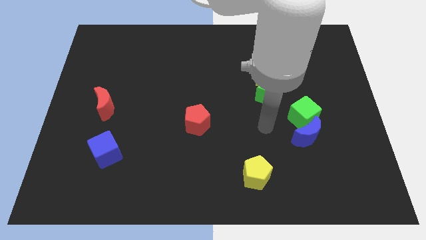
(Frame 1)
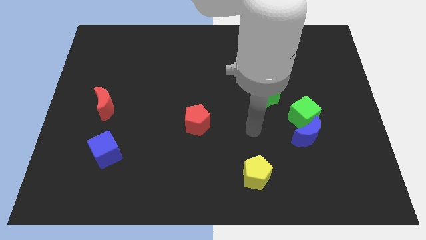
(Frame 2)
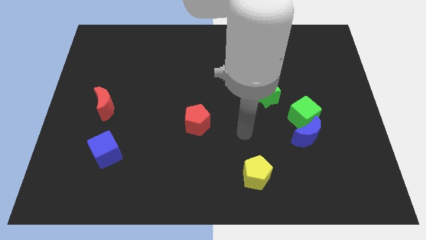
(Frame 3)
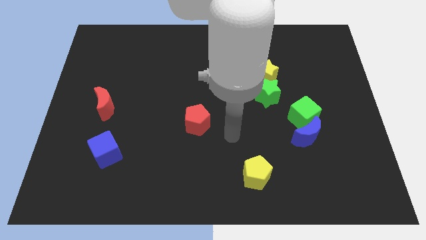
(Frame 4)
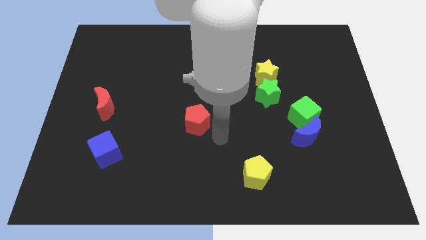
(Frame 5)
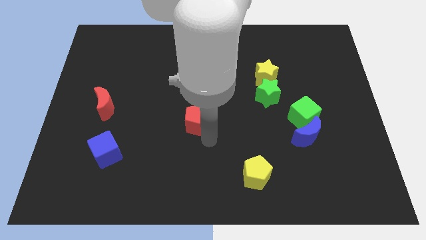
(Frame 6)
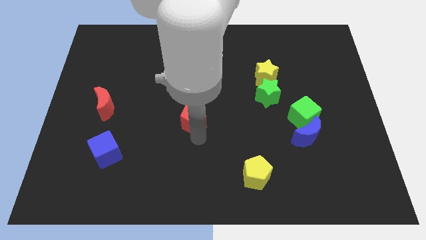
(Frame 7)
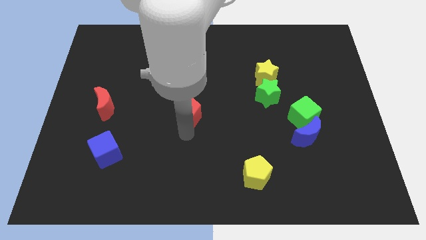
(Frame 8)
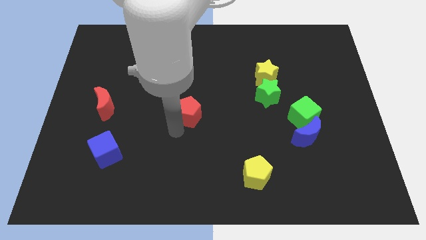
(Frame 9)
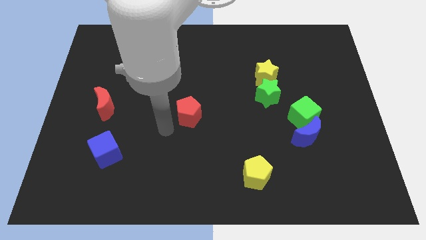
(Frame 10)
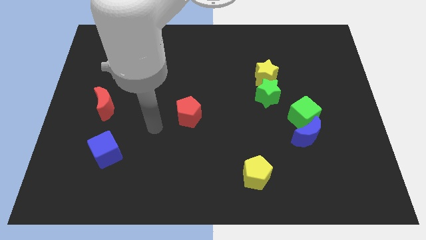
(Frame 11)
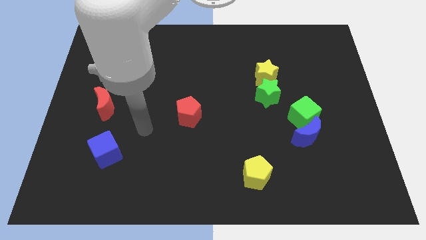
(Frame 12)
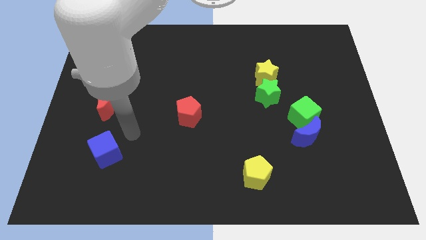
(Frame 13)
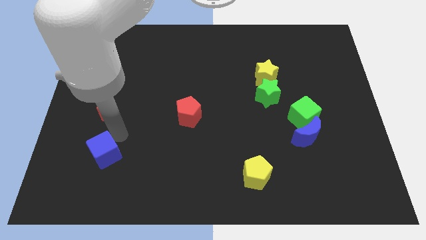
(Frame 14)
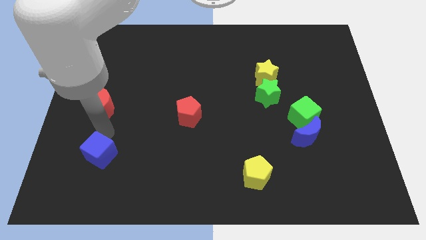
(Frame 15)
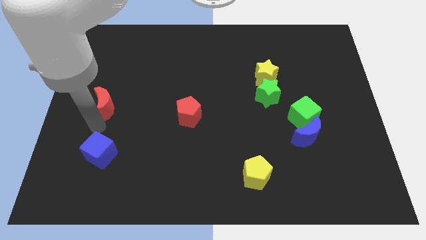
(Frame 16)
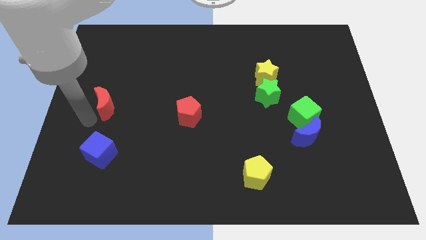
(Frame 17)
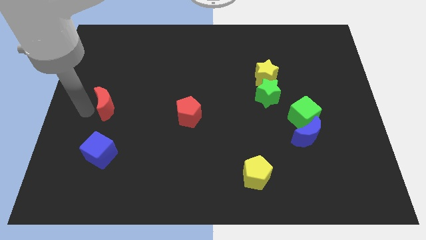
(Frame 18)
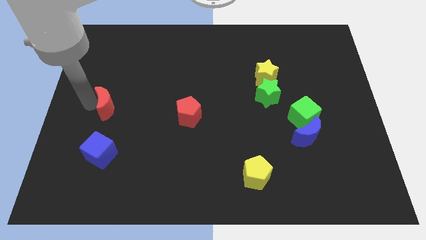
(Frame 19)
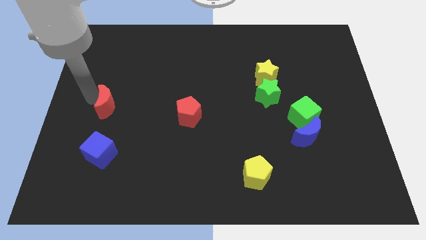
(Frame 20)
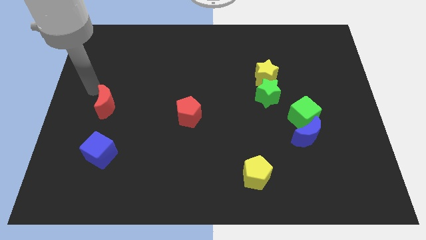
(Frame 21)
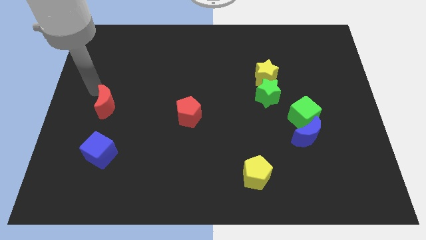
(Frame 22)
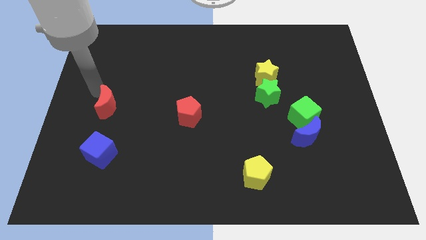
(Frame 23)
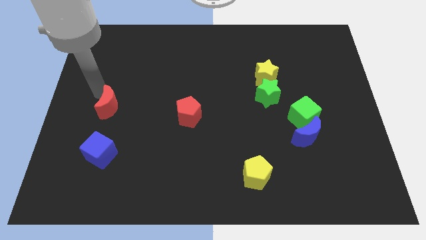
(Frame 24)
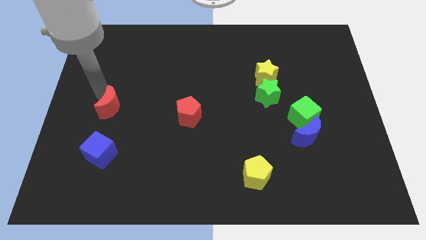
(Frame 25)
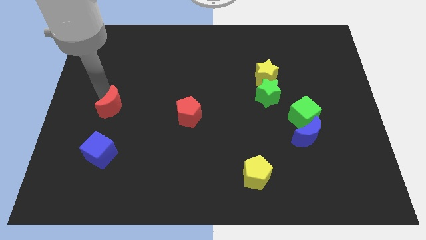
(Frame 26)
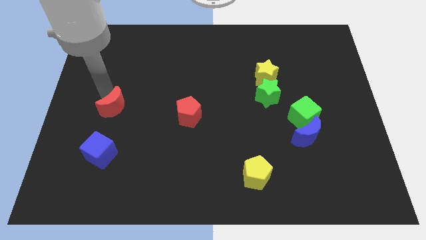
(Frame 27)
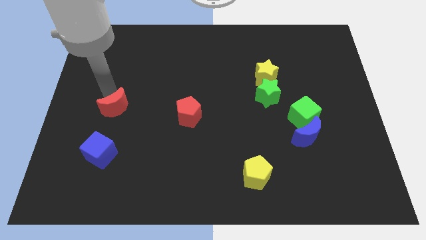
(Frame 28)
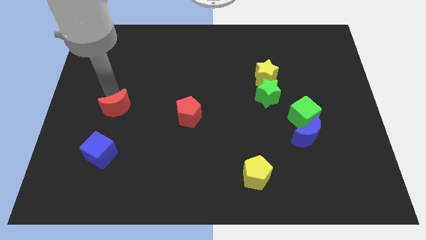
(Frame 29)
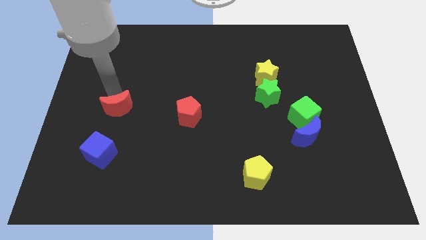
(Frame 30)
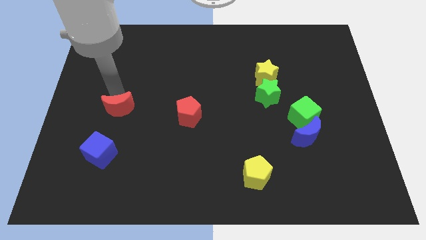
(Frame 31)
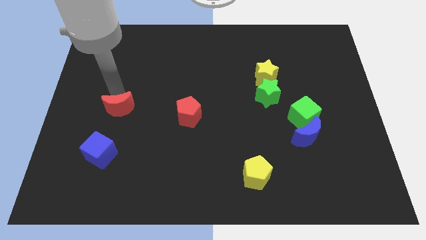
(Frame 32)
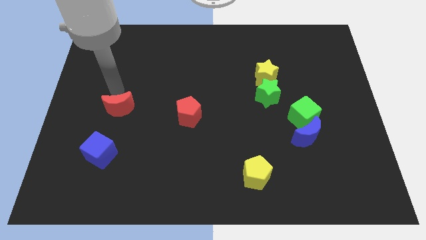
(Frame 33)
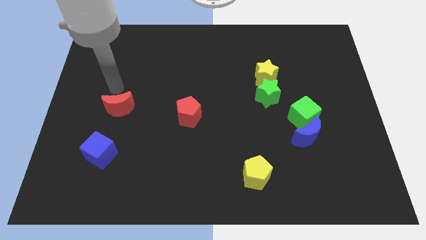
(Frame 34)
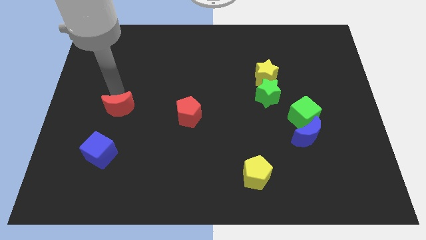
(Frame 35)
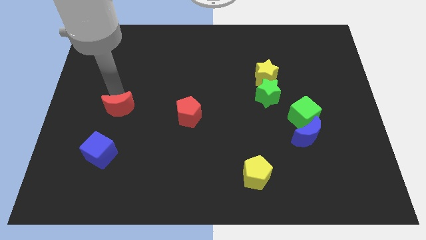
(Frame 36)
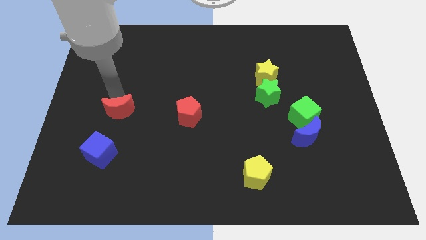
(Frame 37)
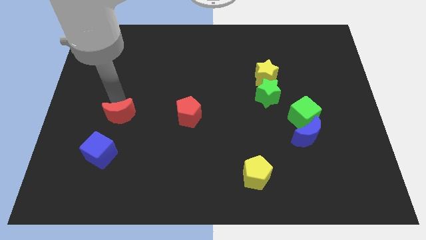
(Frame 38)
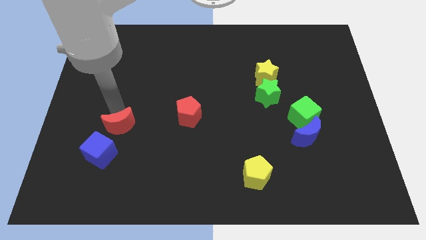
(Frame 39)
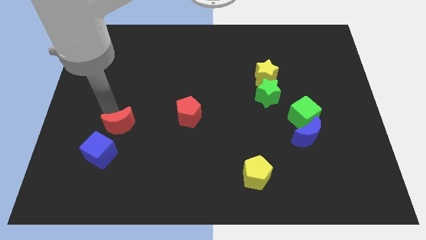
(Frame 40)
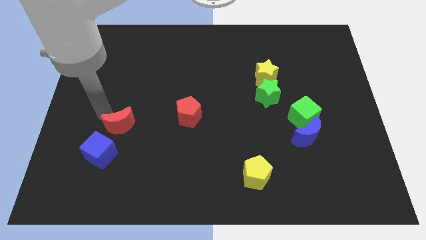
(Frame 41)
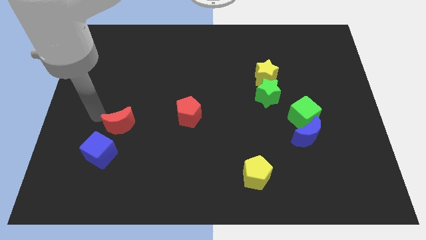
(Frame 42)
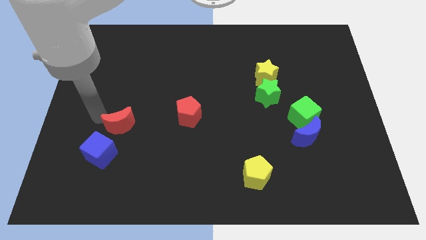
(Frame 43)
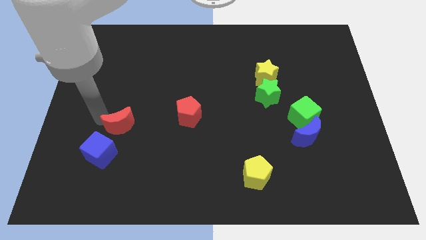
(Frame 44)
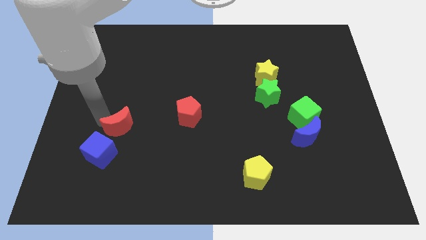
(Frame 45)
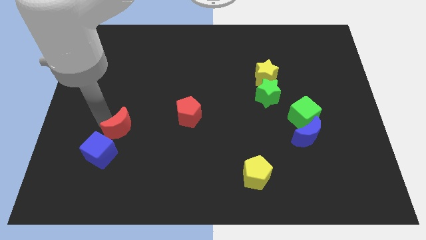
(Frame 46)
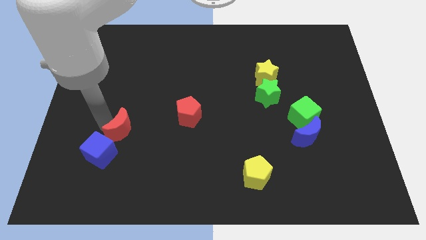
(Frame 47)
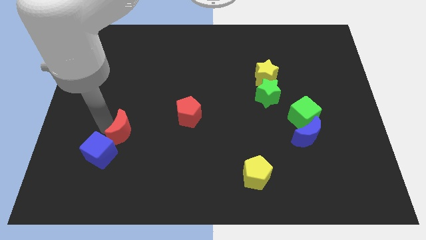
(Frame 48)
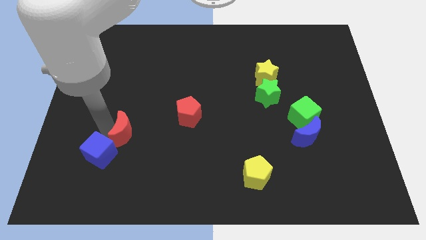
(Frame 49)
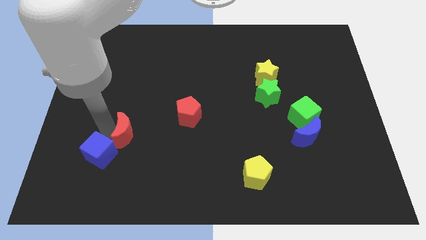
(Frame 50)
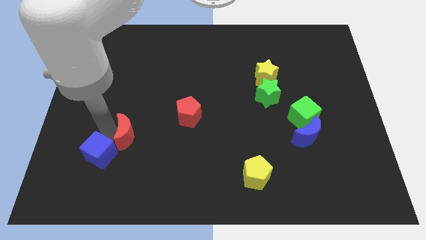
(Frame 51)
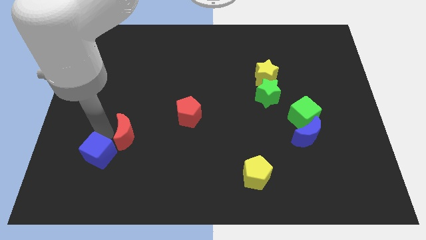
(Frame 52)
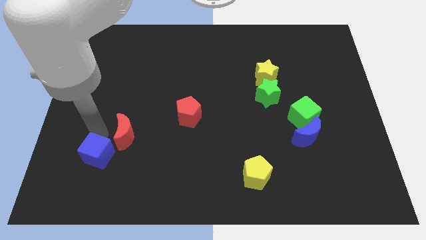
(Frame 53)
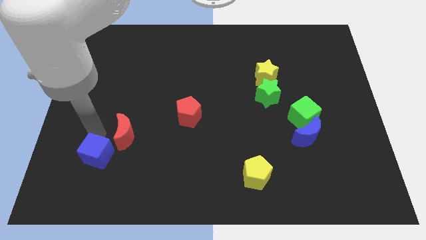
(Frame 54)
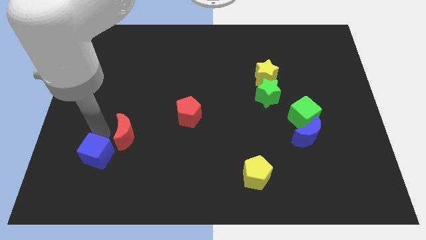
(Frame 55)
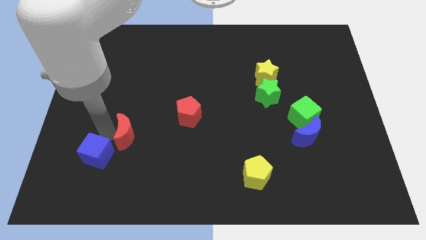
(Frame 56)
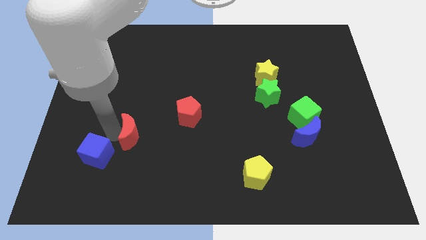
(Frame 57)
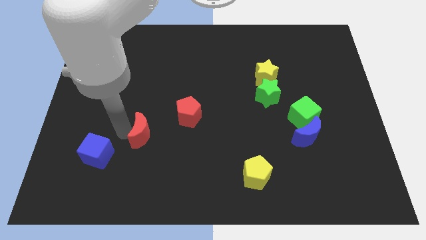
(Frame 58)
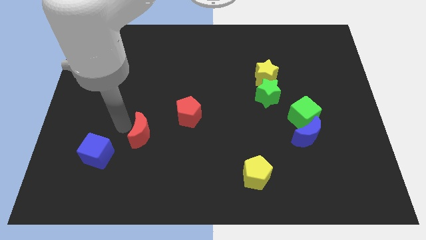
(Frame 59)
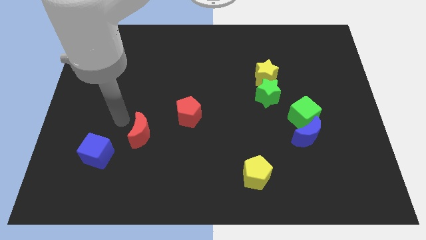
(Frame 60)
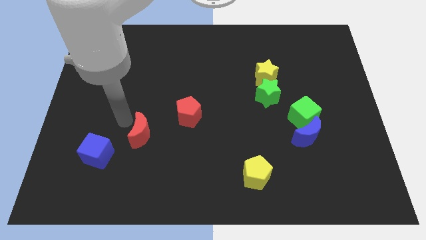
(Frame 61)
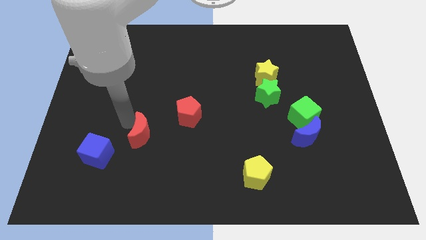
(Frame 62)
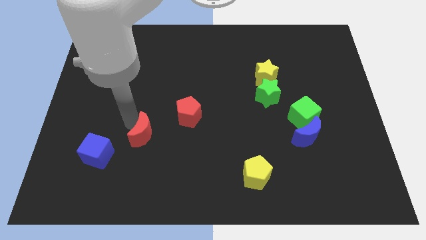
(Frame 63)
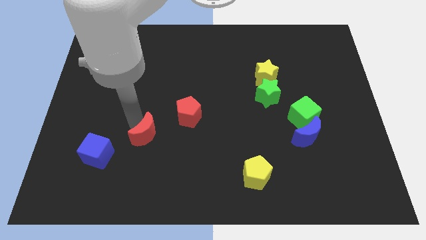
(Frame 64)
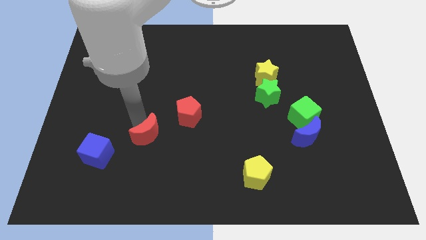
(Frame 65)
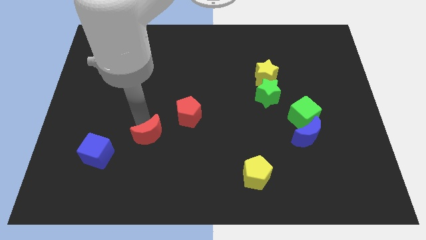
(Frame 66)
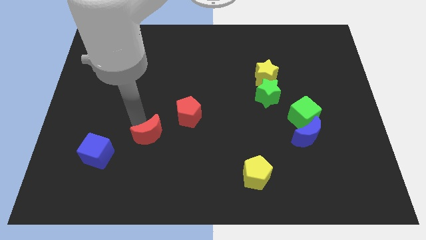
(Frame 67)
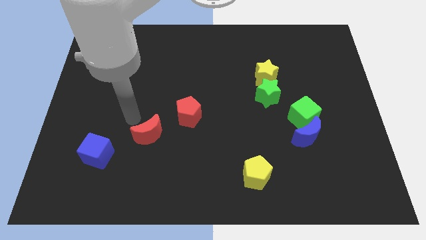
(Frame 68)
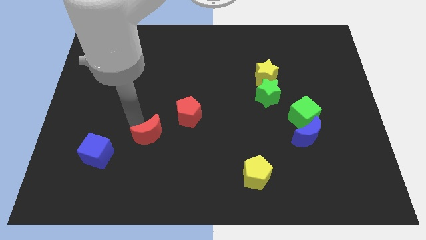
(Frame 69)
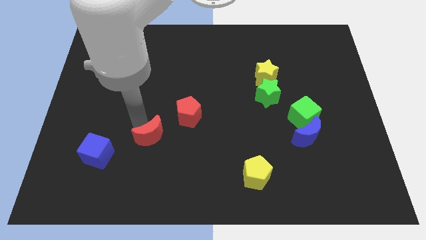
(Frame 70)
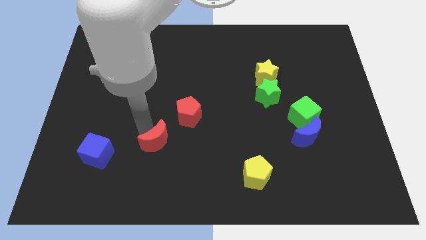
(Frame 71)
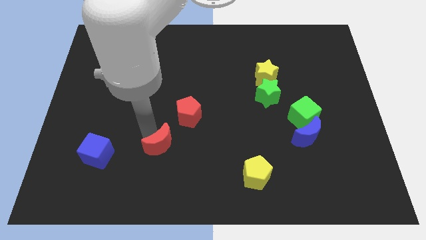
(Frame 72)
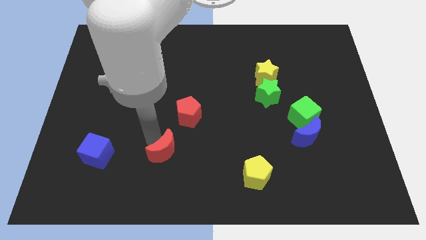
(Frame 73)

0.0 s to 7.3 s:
push the red moon to the bottom of the red pentagon
